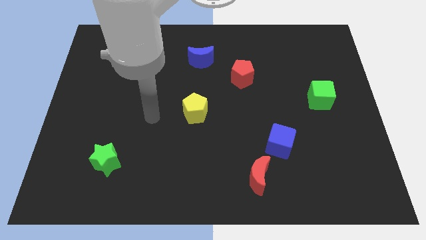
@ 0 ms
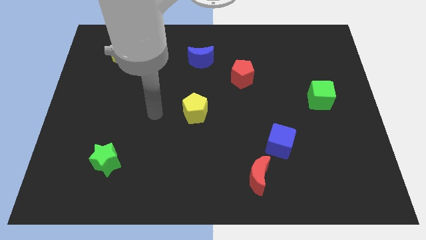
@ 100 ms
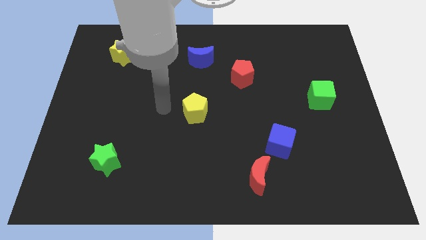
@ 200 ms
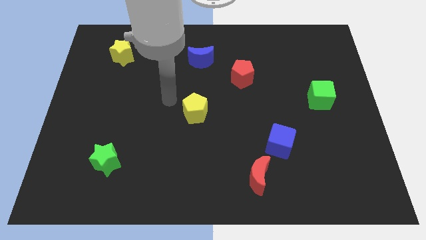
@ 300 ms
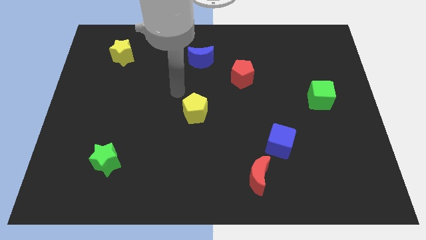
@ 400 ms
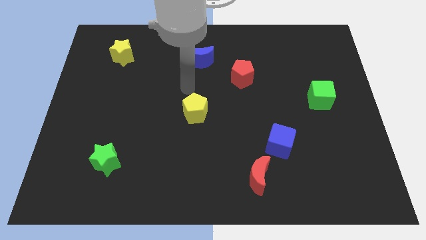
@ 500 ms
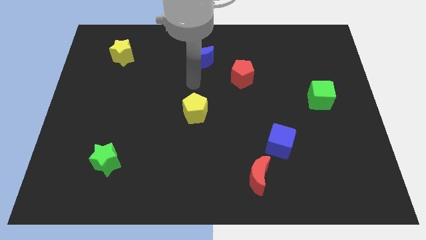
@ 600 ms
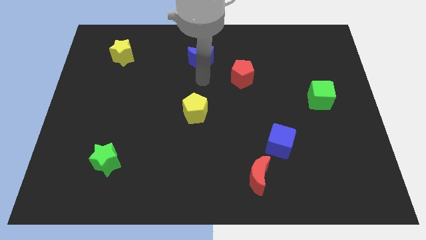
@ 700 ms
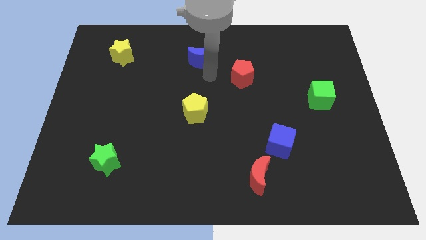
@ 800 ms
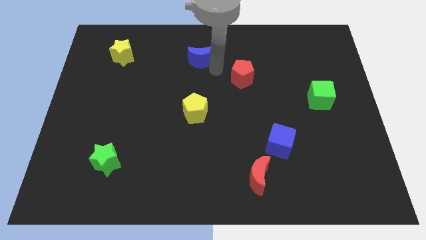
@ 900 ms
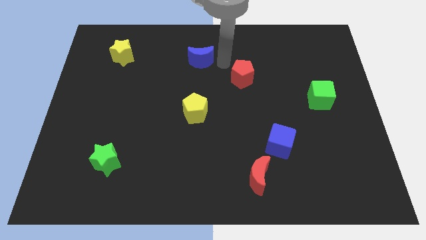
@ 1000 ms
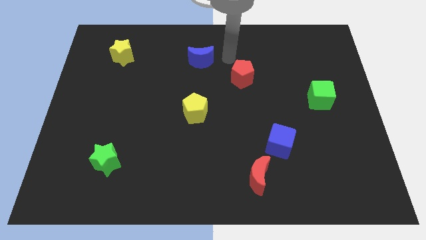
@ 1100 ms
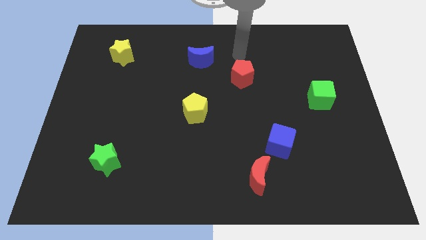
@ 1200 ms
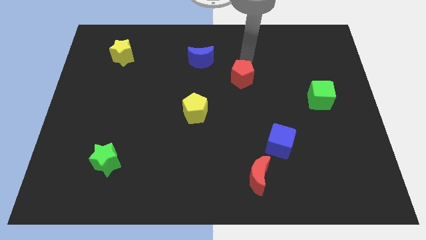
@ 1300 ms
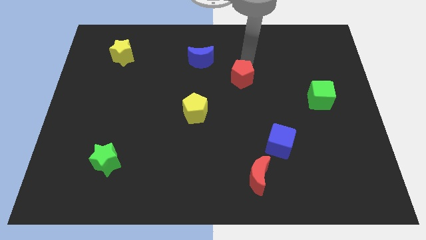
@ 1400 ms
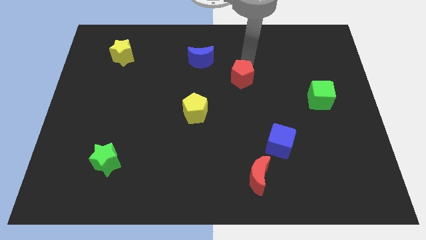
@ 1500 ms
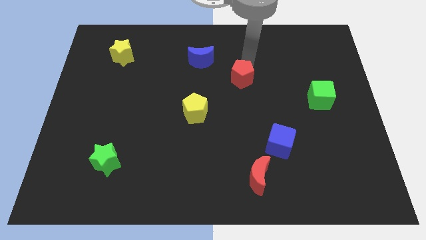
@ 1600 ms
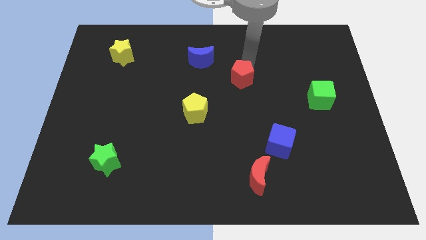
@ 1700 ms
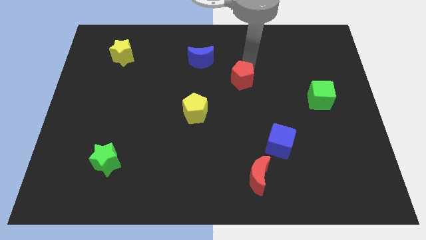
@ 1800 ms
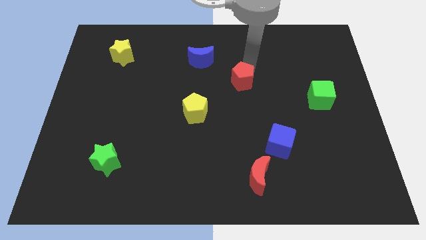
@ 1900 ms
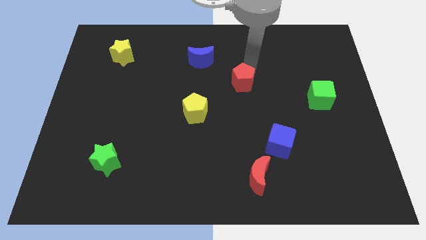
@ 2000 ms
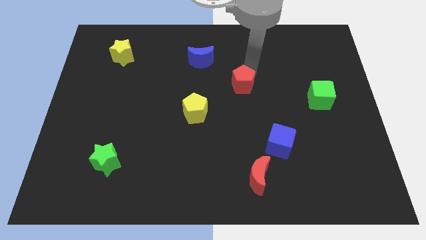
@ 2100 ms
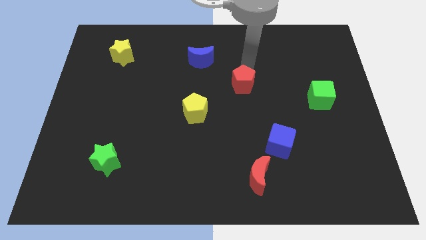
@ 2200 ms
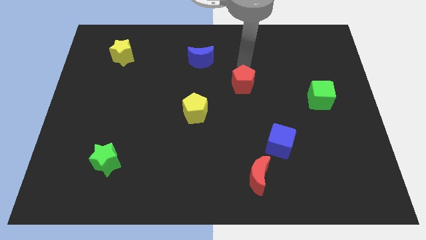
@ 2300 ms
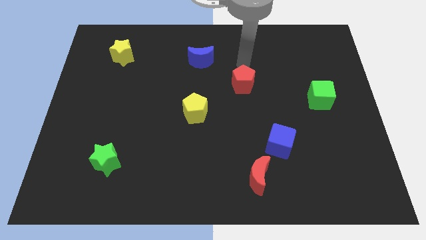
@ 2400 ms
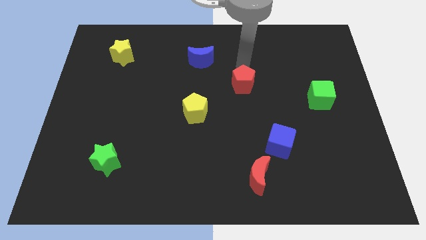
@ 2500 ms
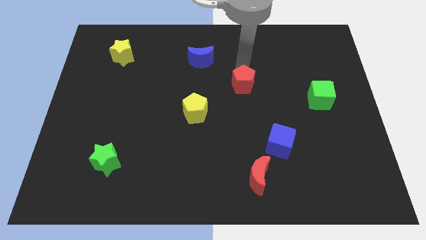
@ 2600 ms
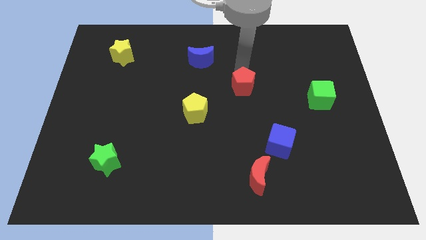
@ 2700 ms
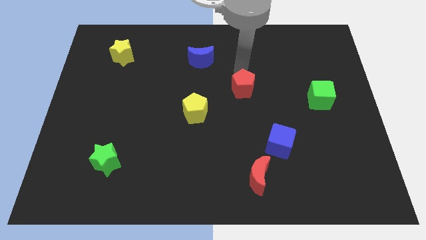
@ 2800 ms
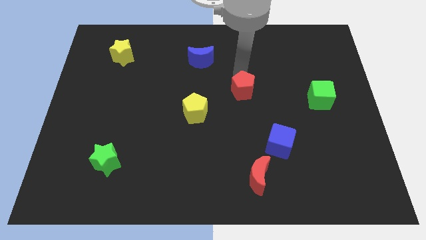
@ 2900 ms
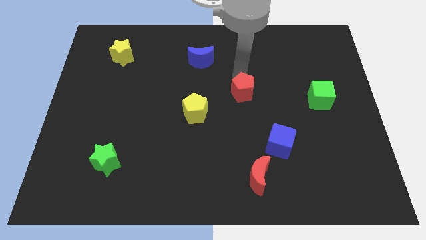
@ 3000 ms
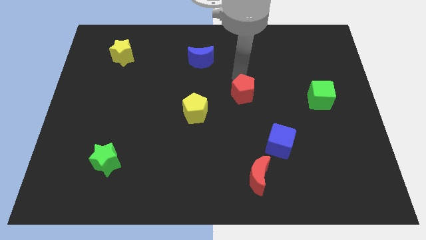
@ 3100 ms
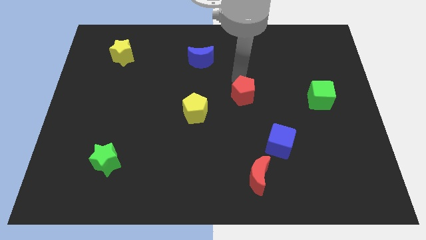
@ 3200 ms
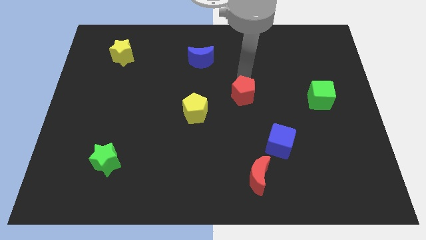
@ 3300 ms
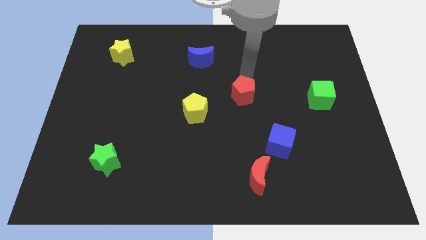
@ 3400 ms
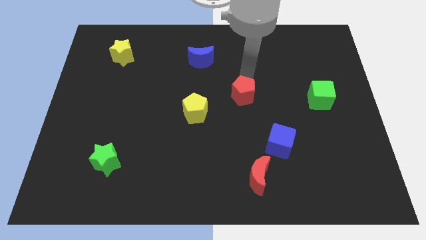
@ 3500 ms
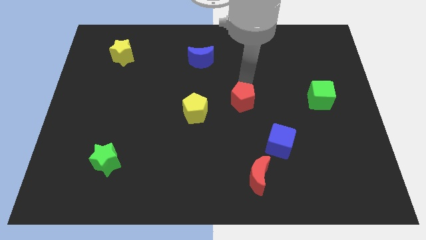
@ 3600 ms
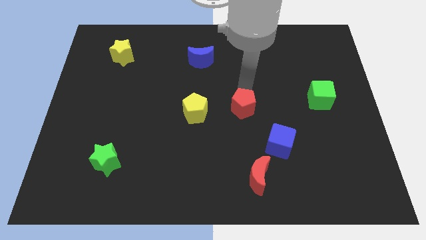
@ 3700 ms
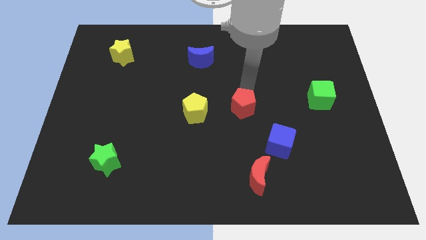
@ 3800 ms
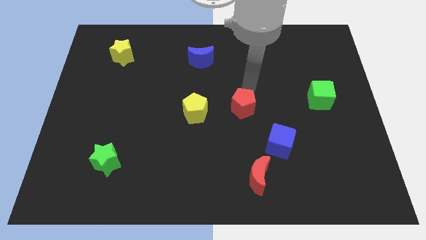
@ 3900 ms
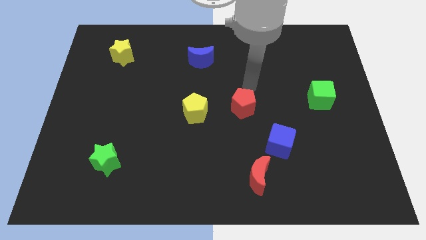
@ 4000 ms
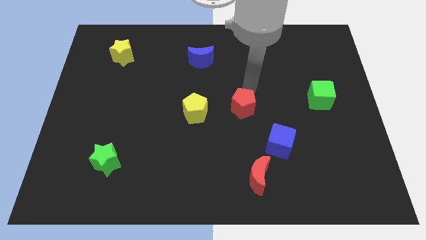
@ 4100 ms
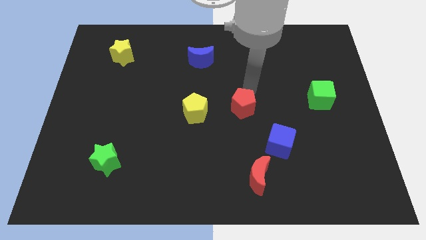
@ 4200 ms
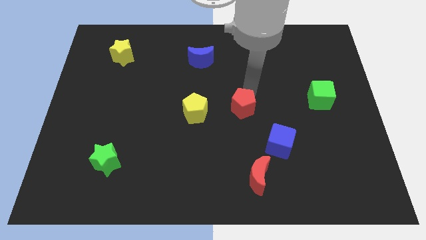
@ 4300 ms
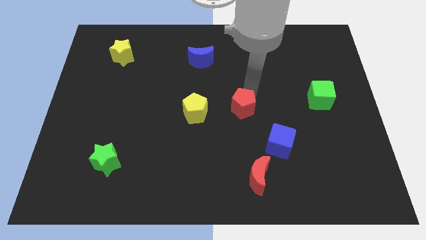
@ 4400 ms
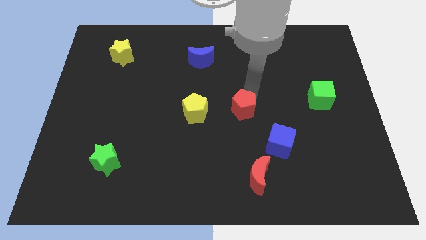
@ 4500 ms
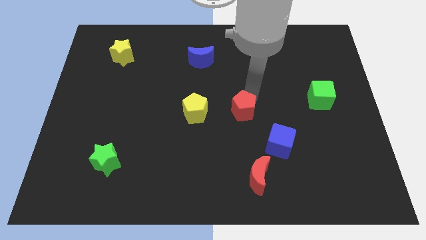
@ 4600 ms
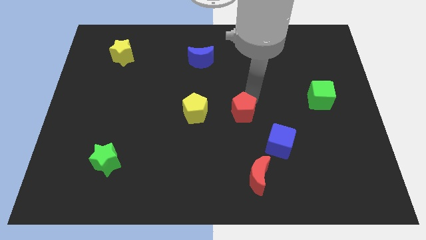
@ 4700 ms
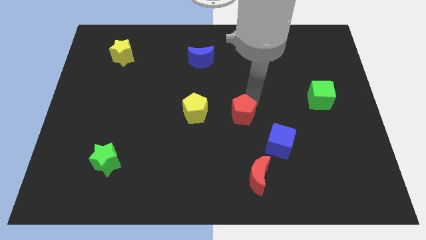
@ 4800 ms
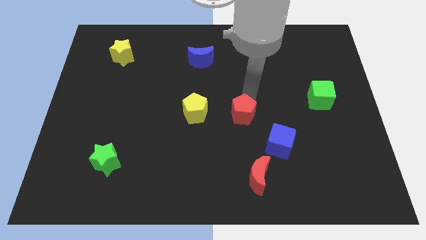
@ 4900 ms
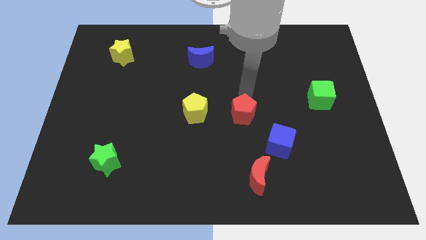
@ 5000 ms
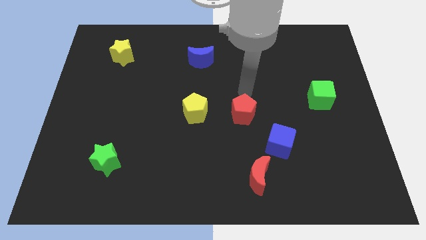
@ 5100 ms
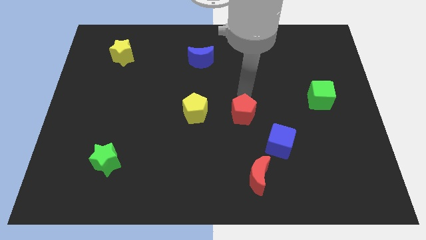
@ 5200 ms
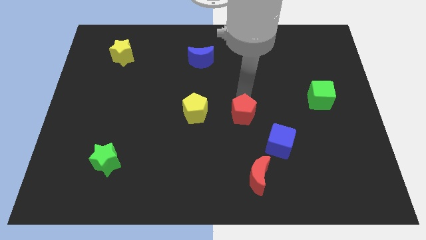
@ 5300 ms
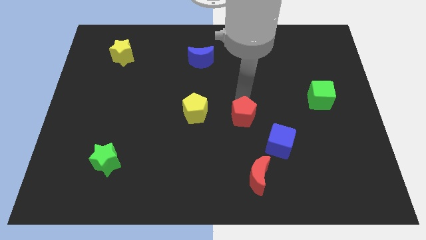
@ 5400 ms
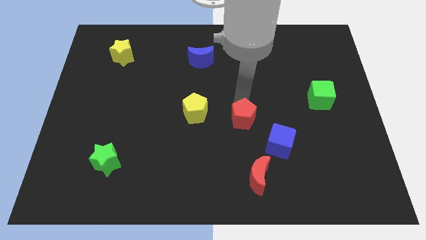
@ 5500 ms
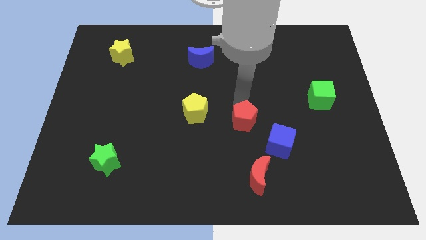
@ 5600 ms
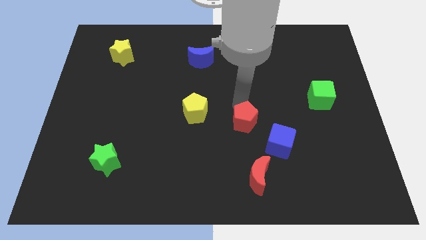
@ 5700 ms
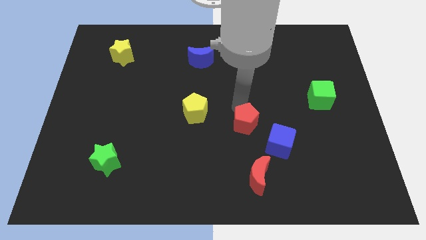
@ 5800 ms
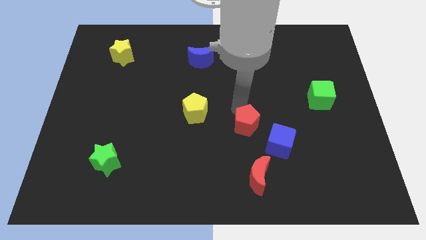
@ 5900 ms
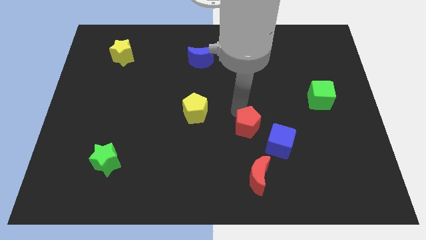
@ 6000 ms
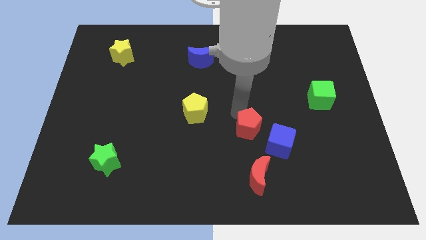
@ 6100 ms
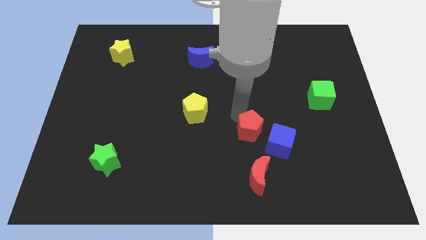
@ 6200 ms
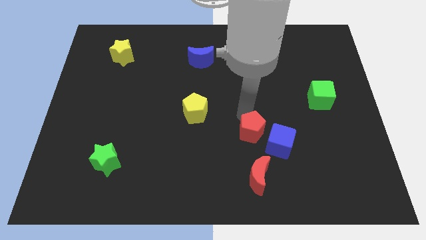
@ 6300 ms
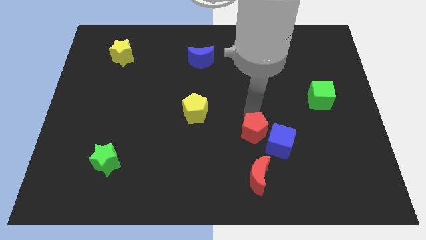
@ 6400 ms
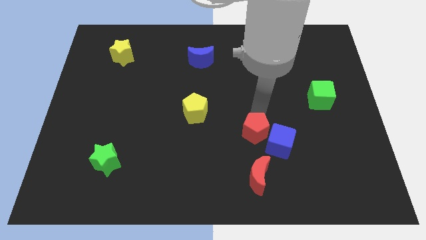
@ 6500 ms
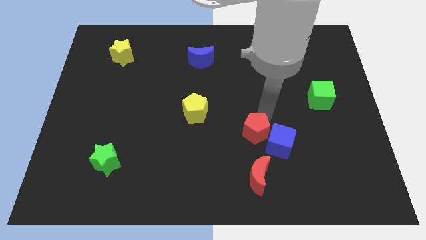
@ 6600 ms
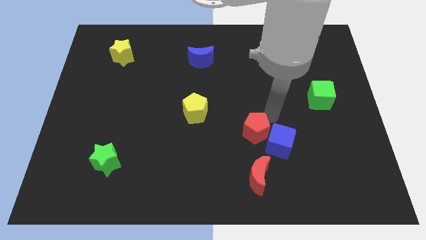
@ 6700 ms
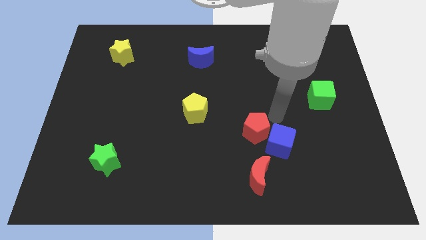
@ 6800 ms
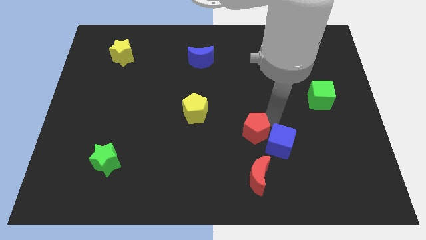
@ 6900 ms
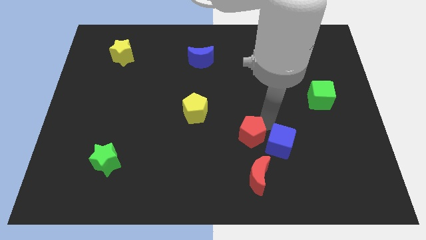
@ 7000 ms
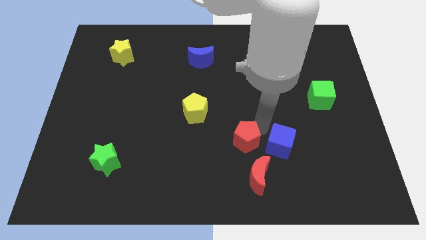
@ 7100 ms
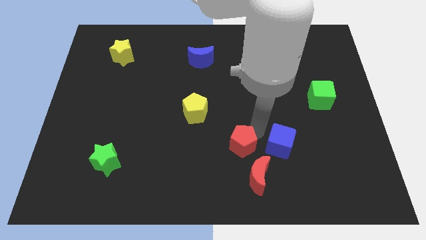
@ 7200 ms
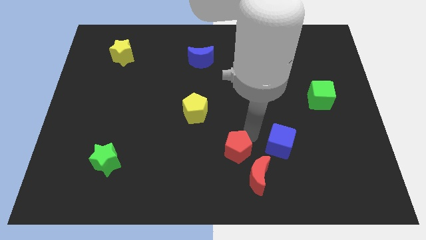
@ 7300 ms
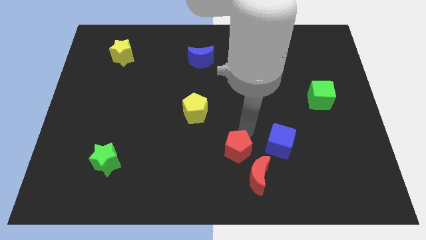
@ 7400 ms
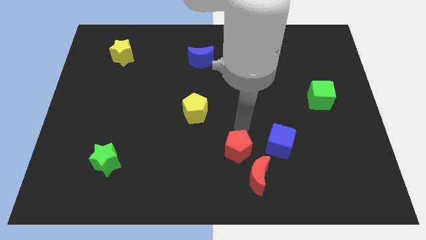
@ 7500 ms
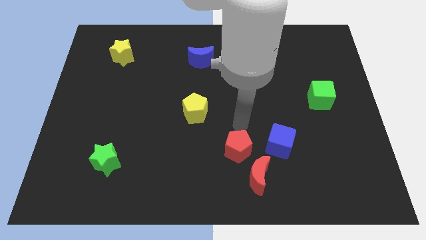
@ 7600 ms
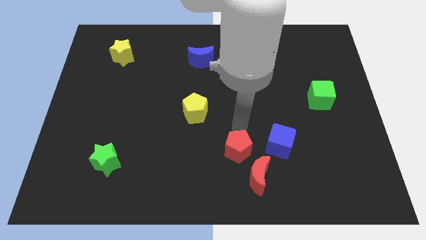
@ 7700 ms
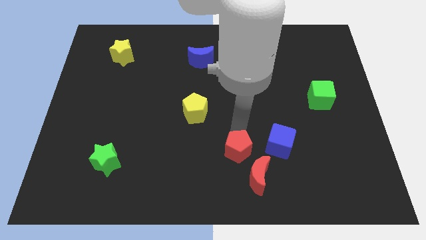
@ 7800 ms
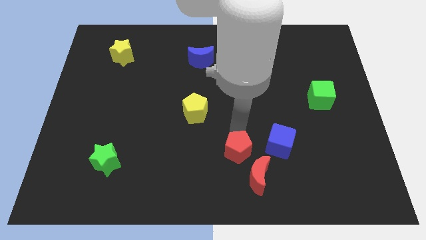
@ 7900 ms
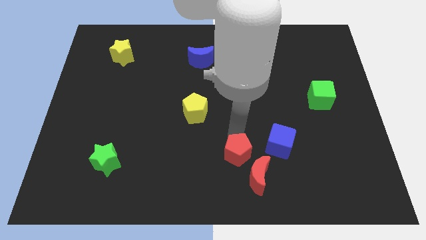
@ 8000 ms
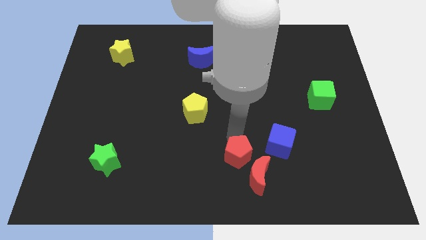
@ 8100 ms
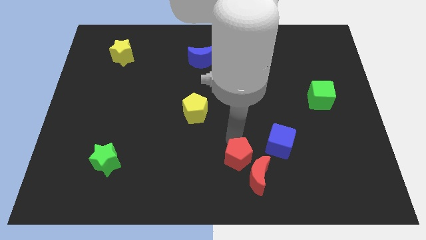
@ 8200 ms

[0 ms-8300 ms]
put the red pentagon to the bottom side
